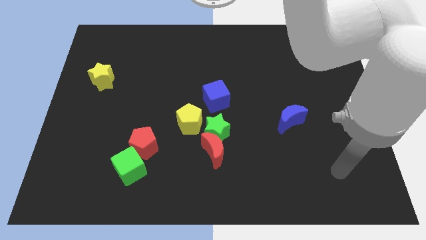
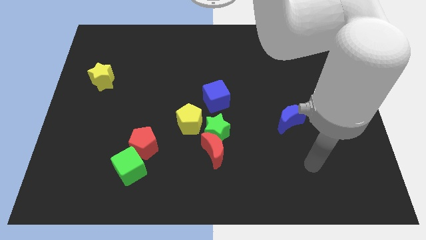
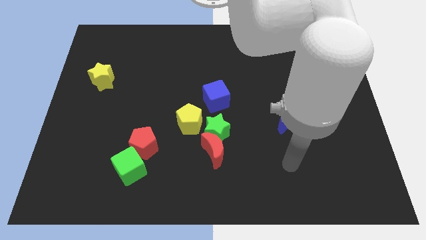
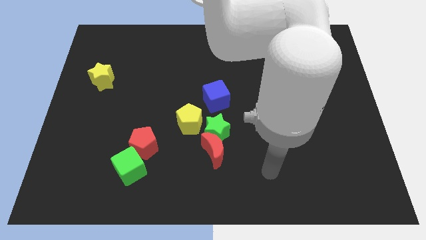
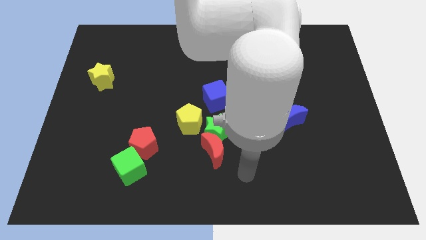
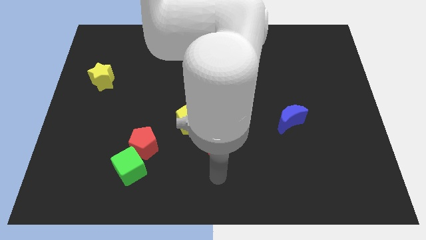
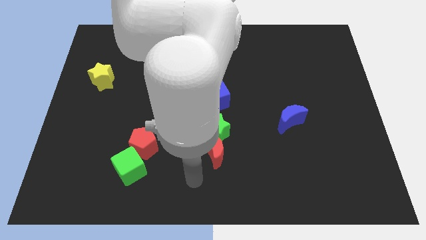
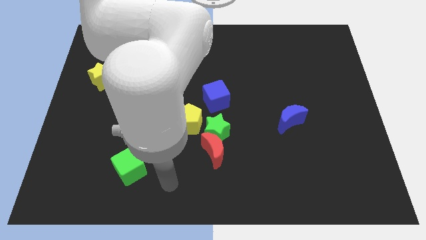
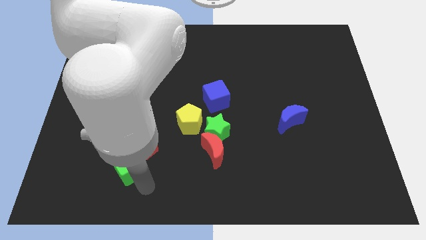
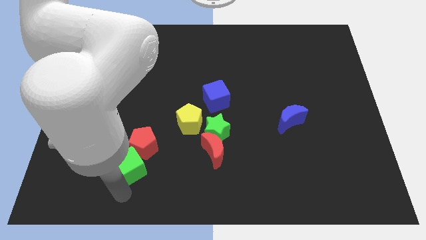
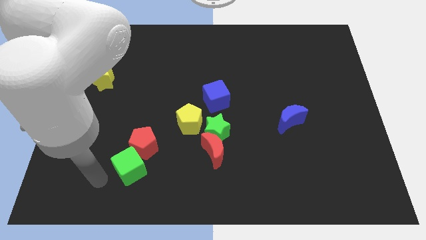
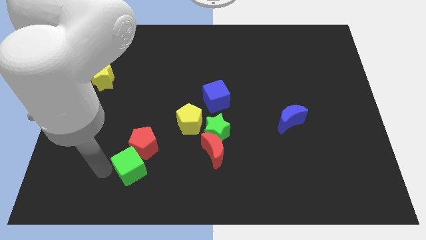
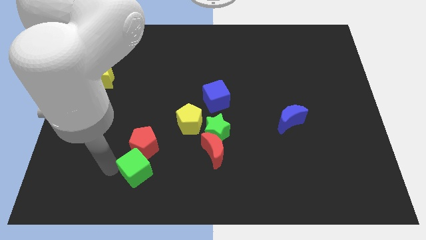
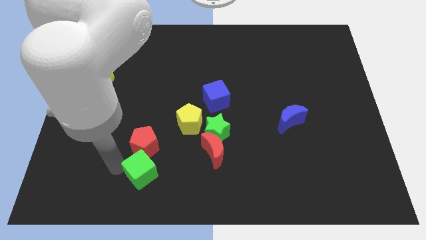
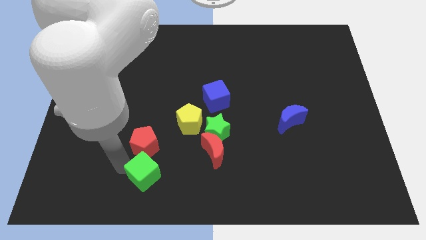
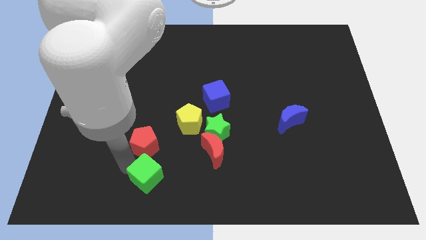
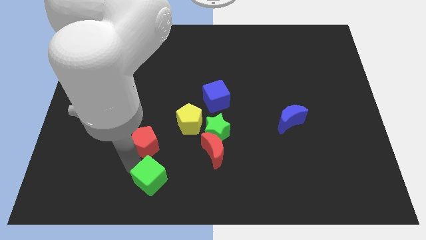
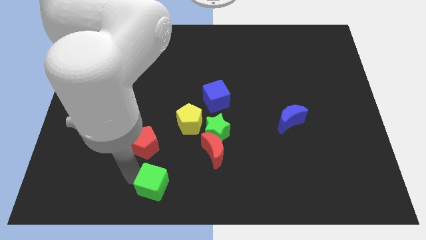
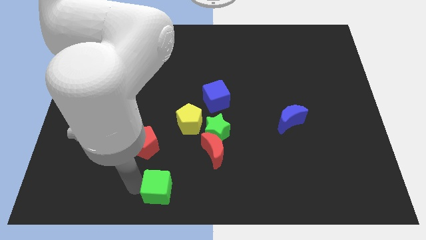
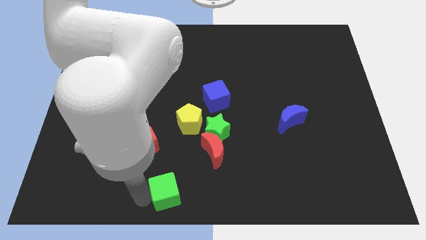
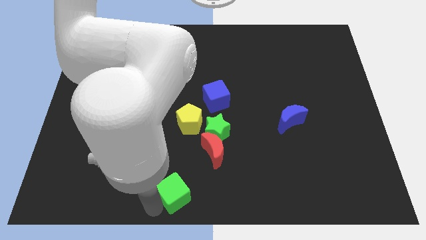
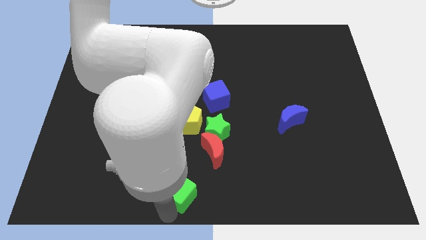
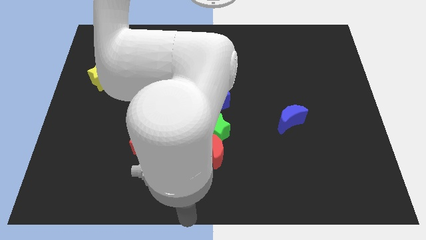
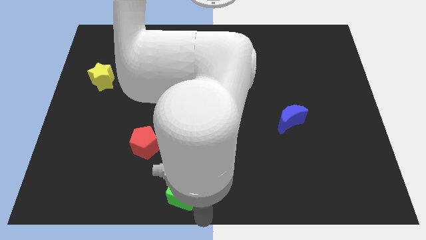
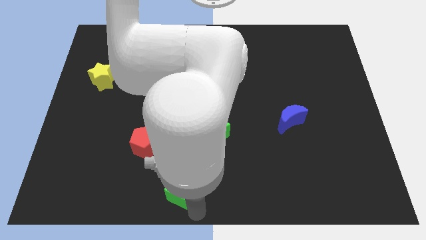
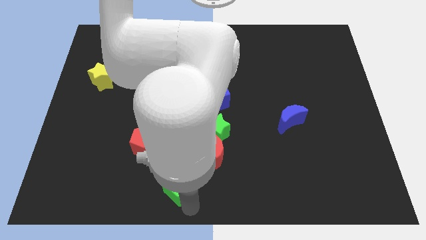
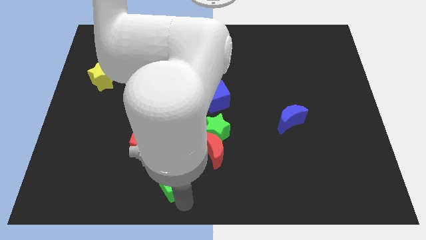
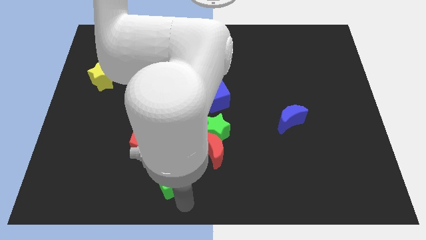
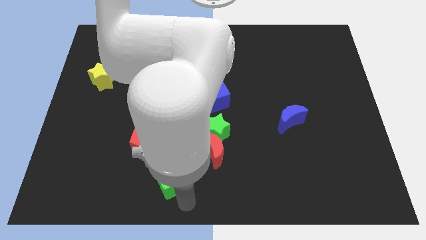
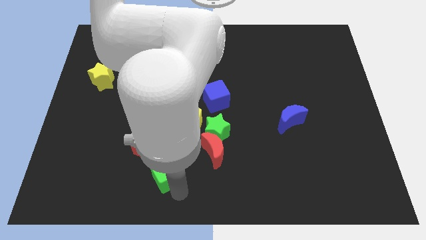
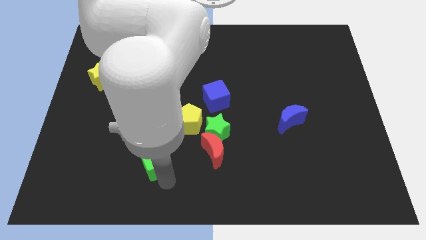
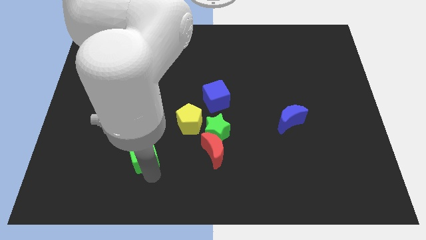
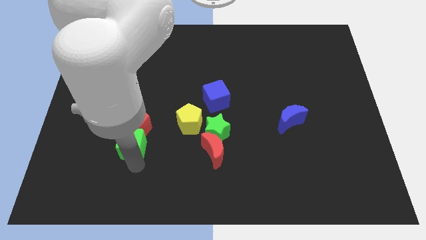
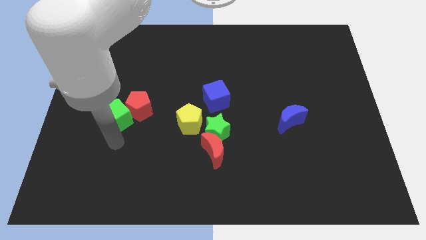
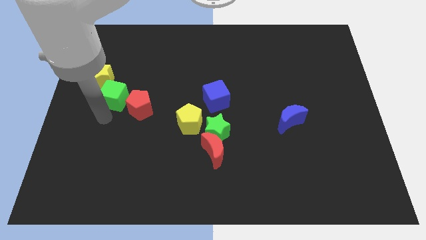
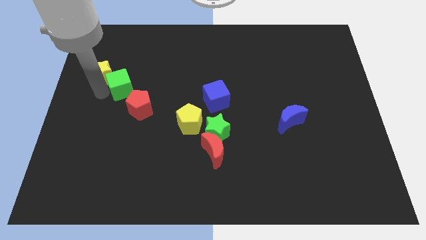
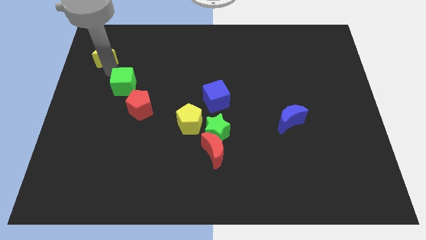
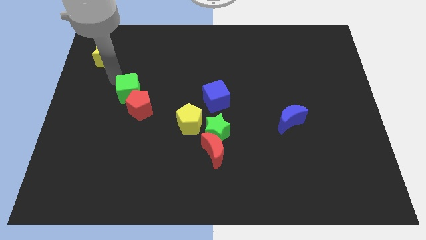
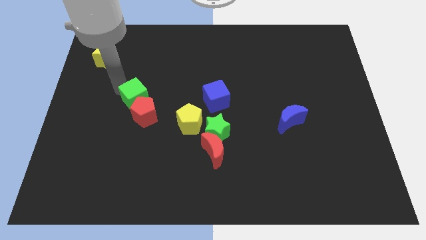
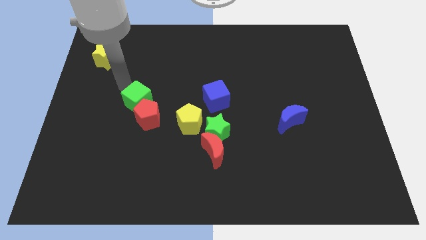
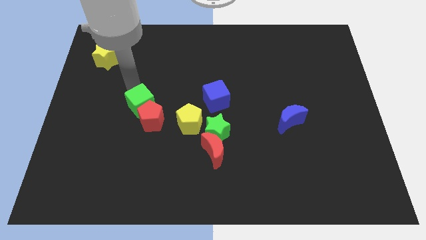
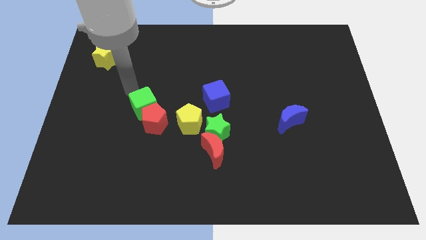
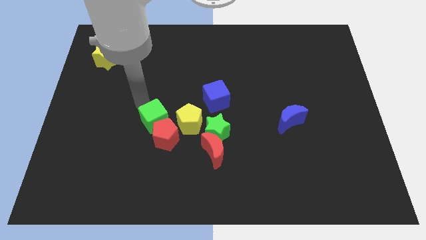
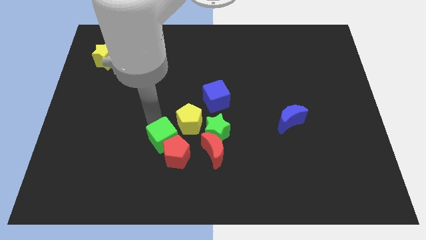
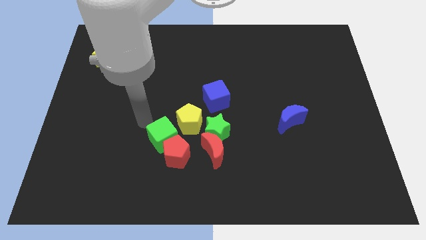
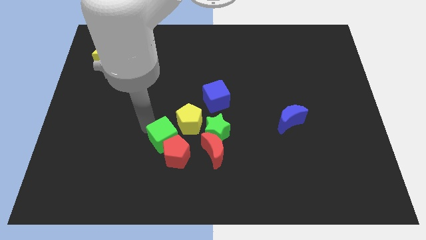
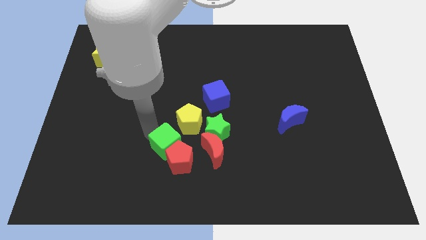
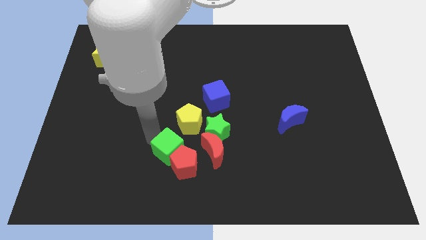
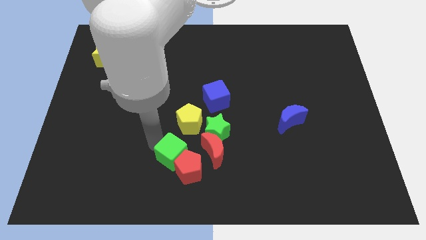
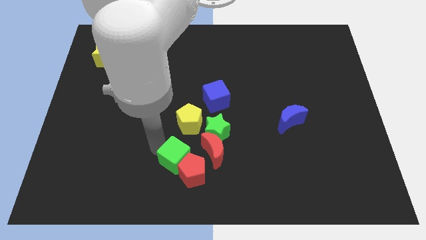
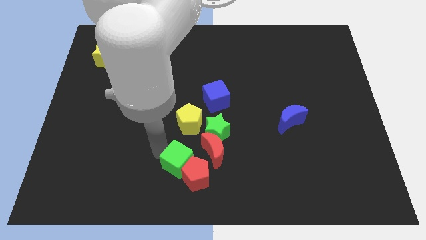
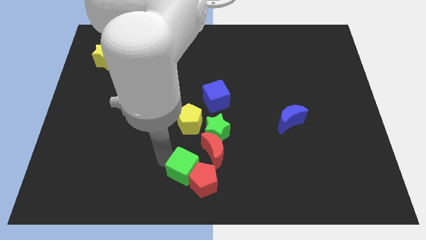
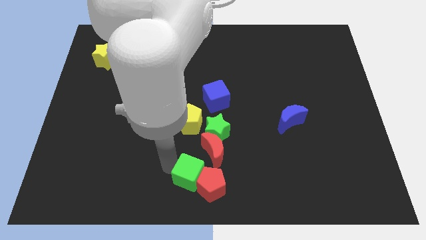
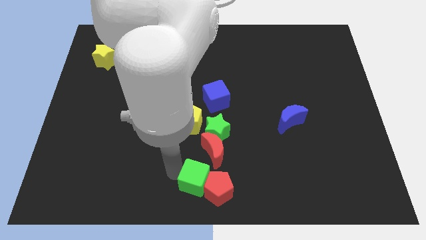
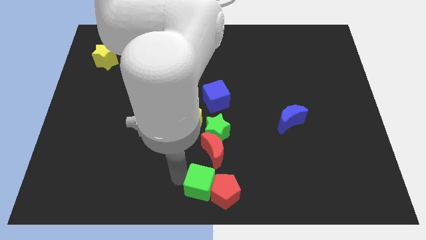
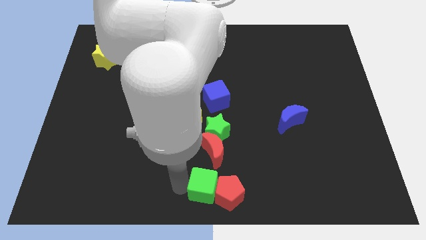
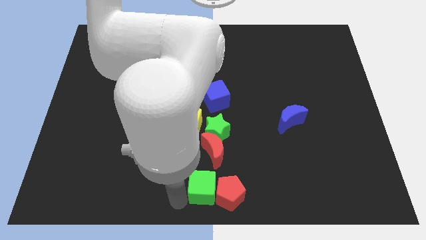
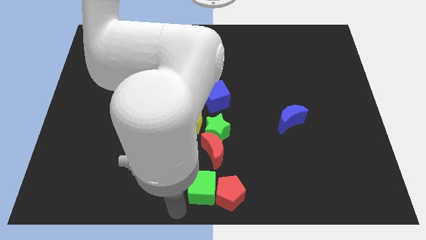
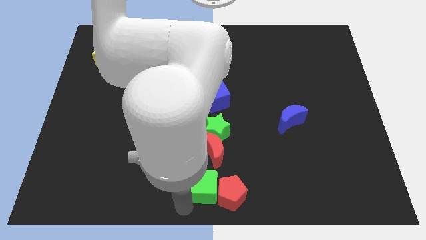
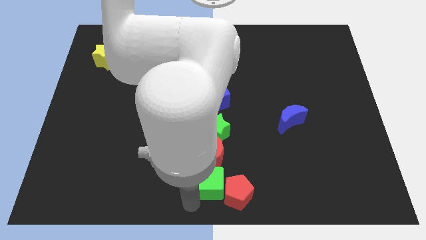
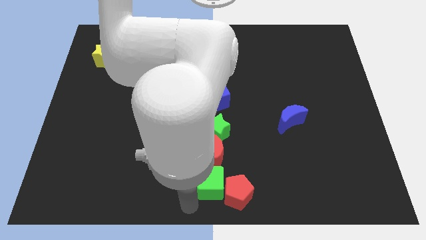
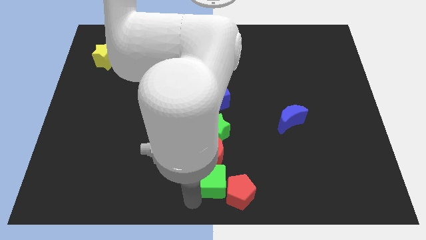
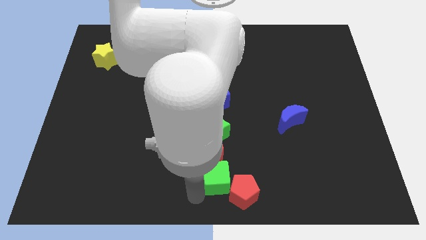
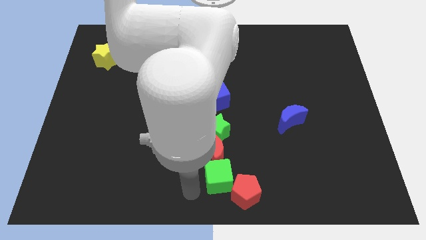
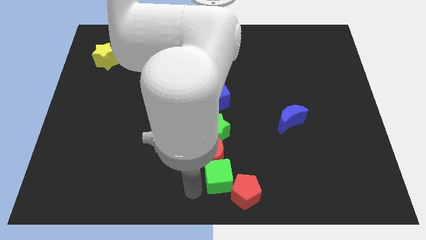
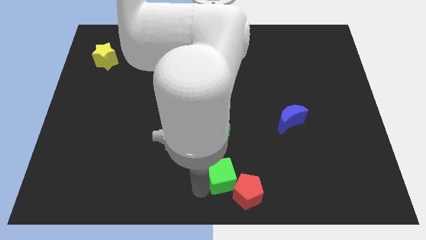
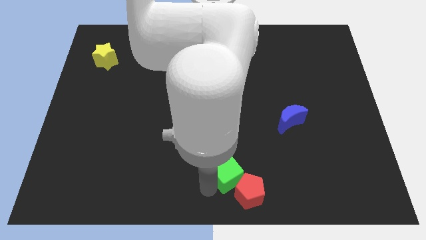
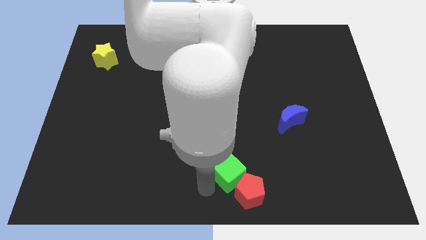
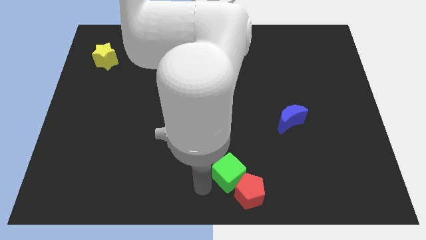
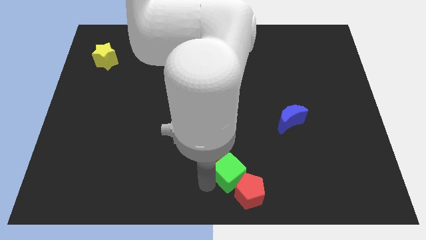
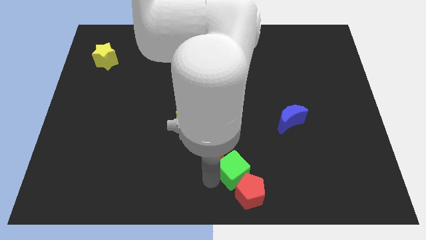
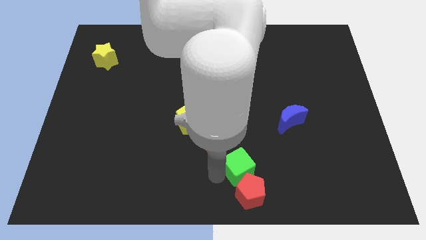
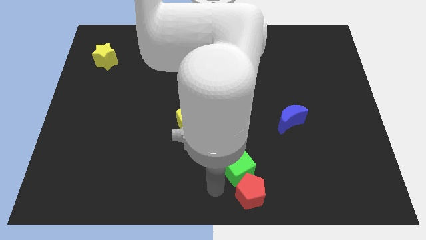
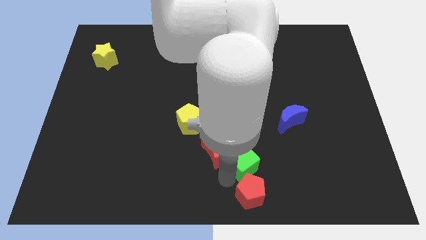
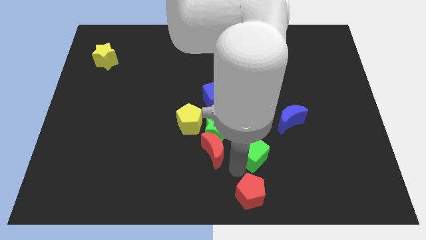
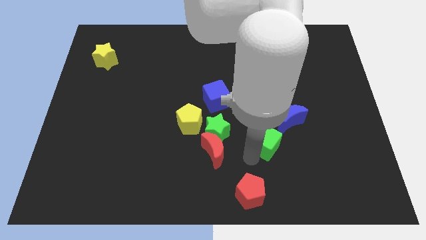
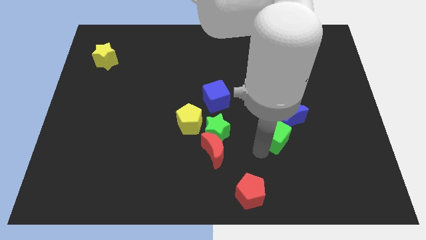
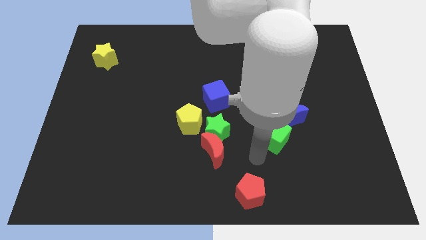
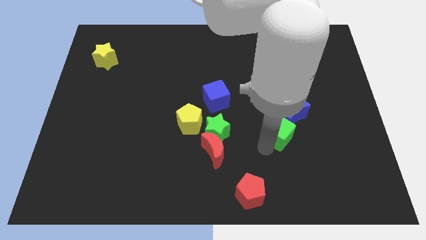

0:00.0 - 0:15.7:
put the green cube next to the blue moon

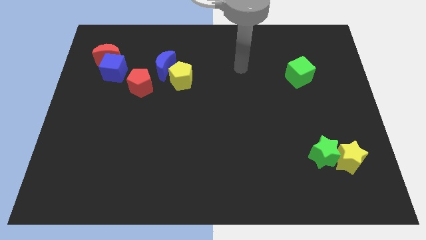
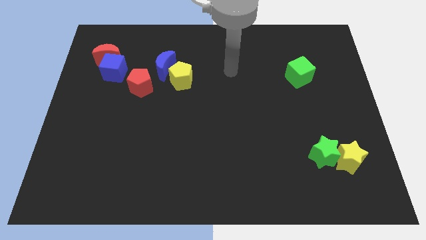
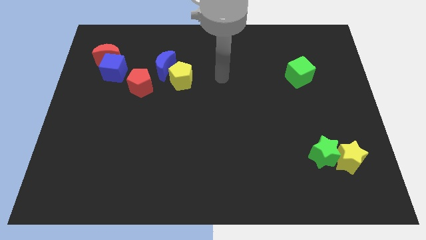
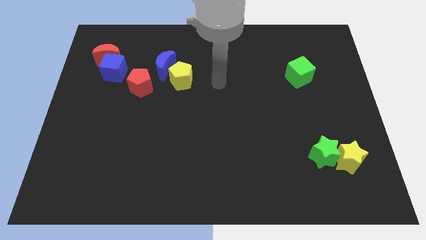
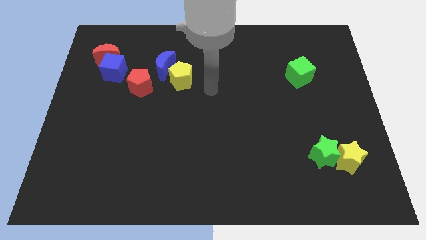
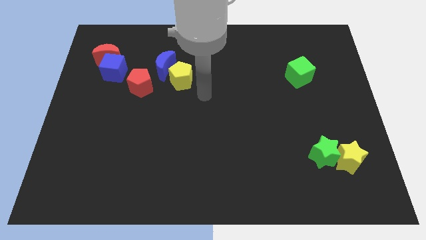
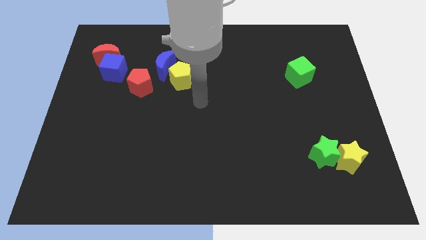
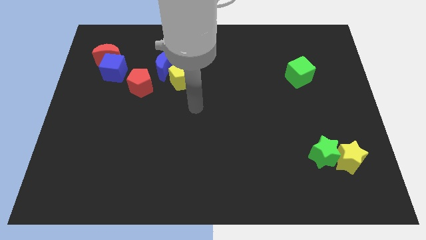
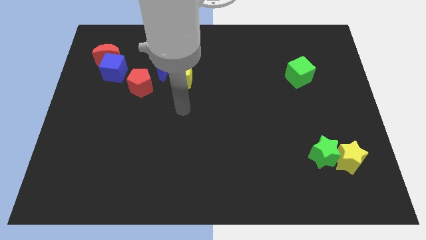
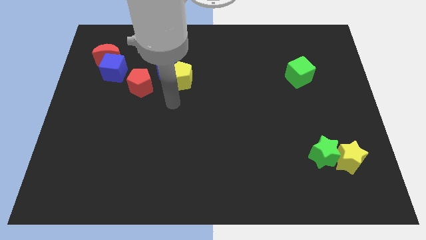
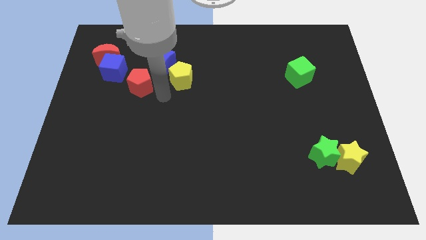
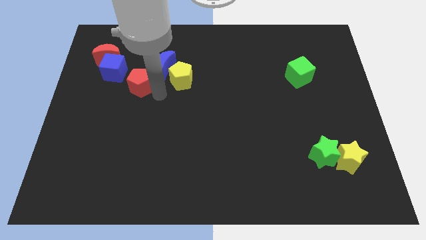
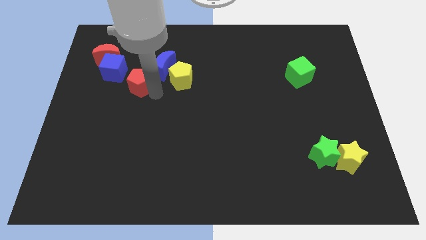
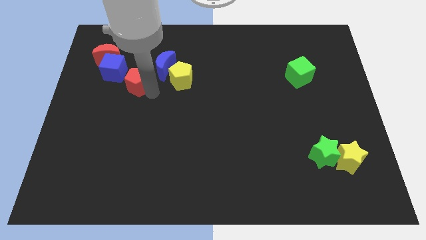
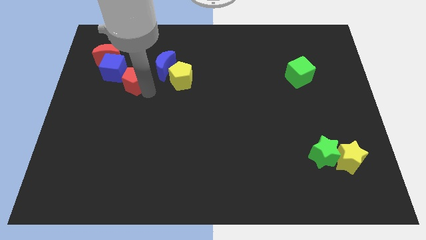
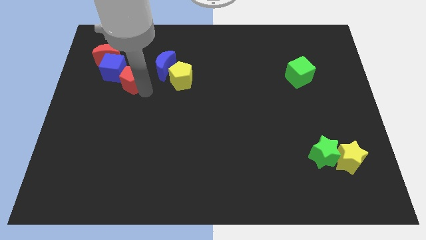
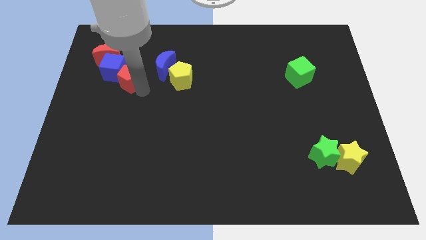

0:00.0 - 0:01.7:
push the red pentagon next to the blue cube
